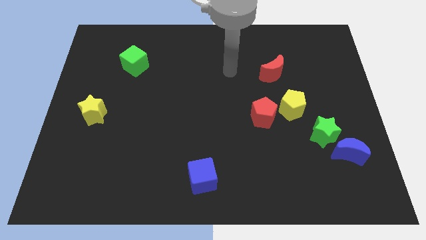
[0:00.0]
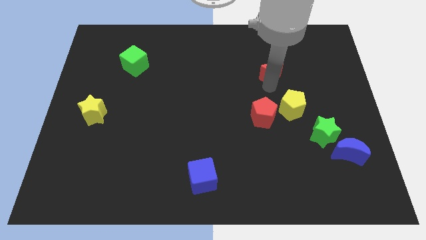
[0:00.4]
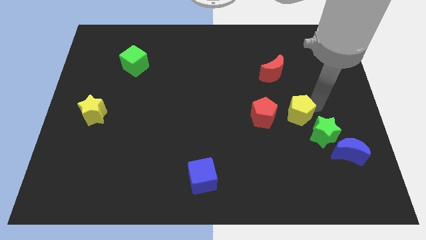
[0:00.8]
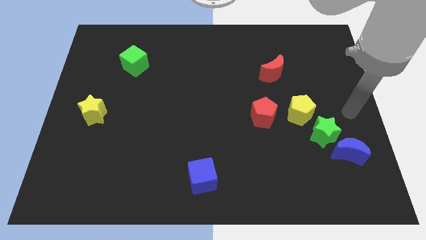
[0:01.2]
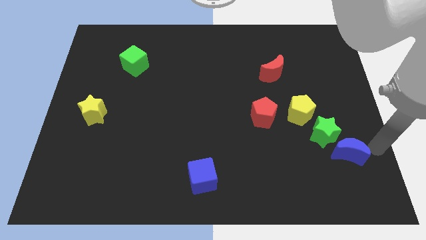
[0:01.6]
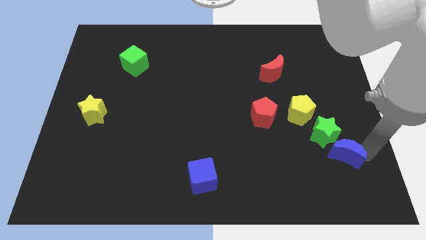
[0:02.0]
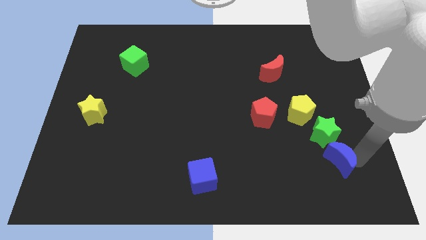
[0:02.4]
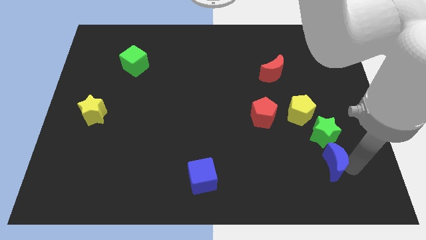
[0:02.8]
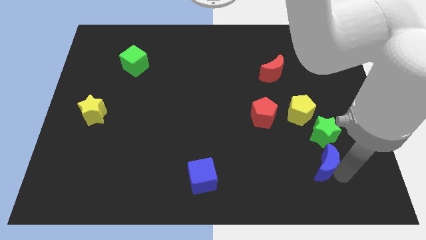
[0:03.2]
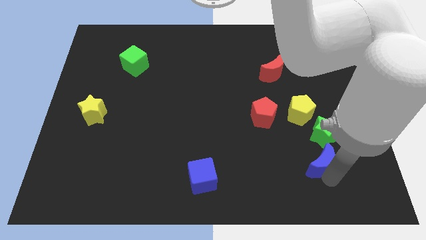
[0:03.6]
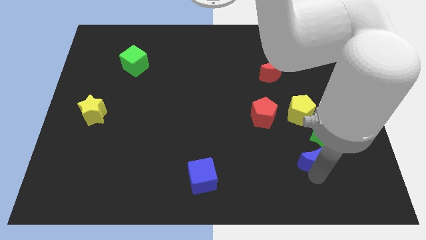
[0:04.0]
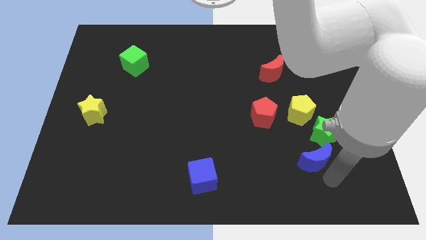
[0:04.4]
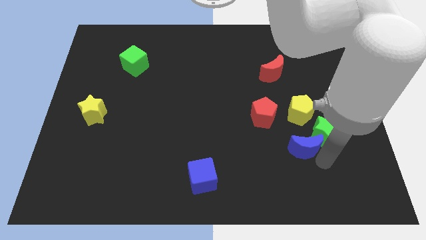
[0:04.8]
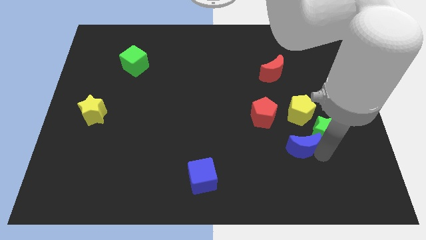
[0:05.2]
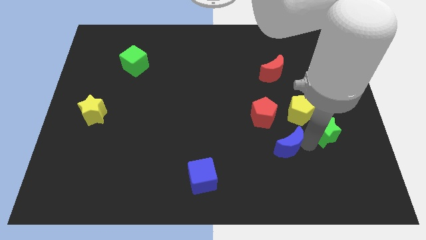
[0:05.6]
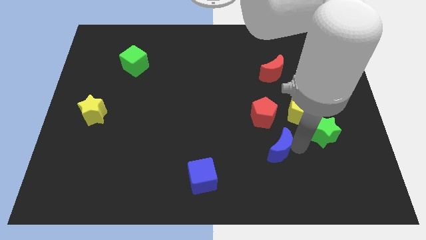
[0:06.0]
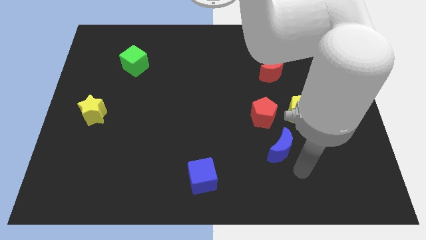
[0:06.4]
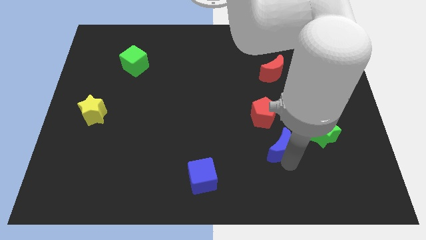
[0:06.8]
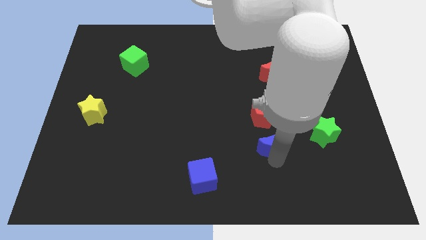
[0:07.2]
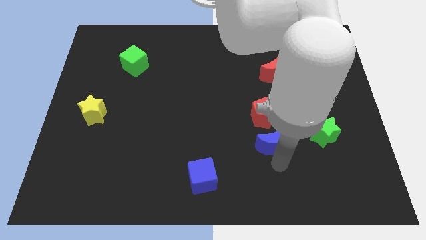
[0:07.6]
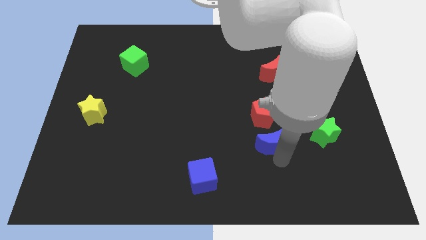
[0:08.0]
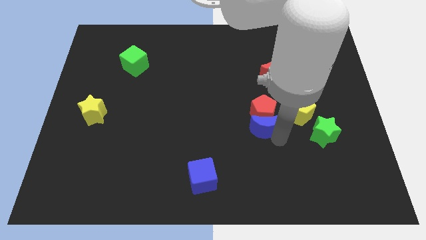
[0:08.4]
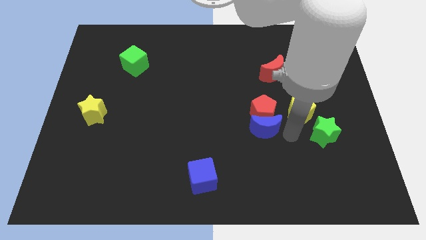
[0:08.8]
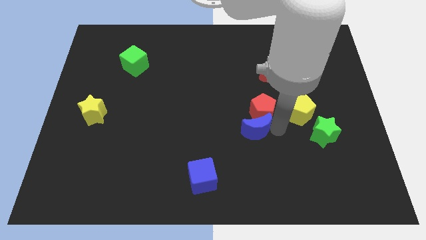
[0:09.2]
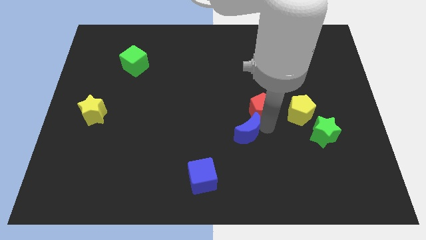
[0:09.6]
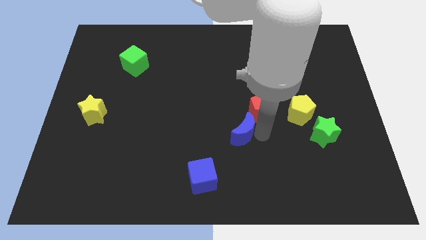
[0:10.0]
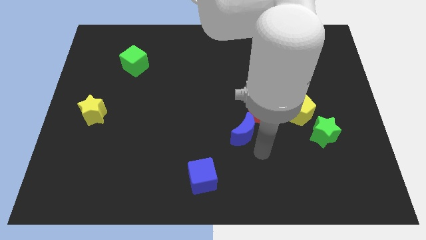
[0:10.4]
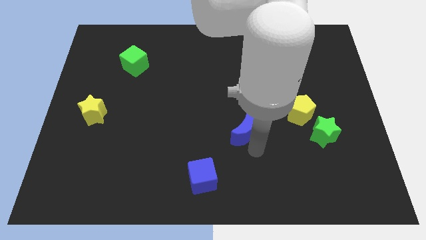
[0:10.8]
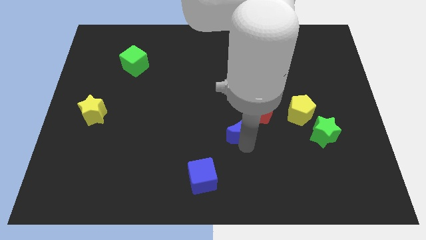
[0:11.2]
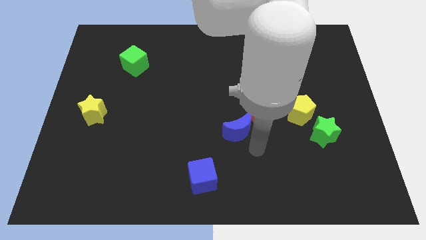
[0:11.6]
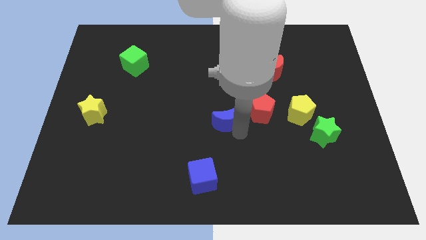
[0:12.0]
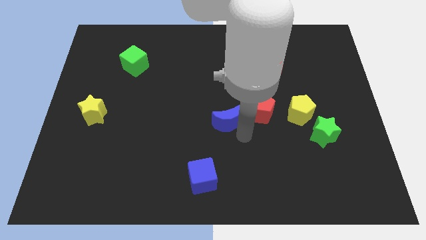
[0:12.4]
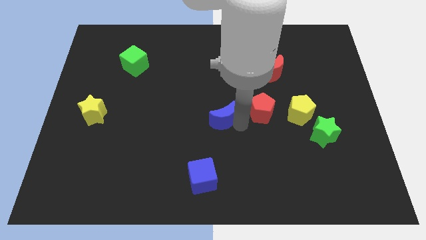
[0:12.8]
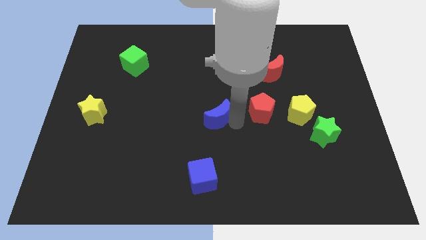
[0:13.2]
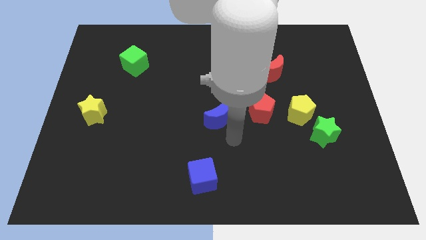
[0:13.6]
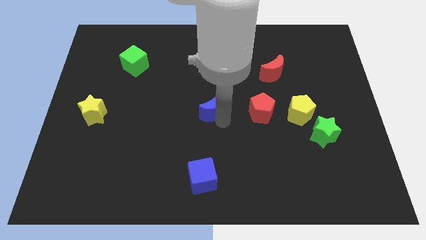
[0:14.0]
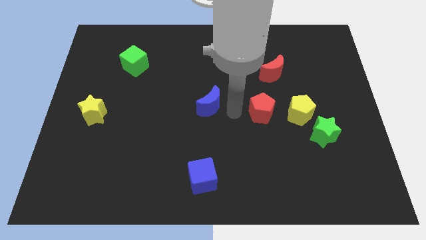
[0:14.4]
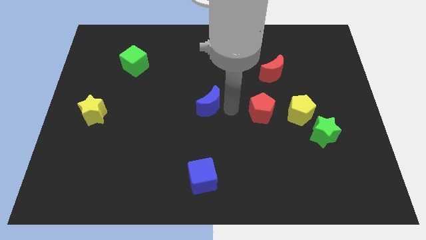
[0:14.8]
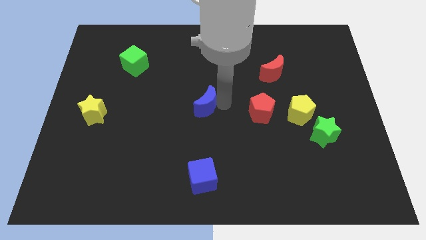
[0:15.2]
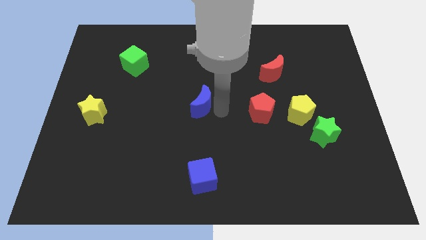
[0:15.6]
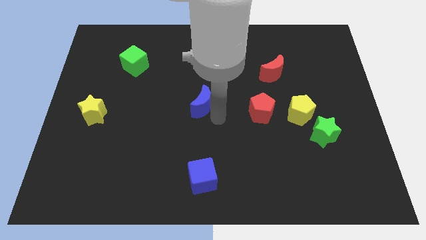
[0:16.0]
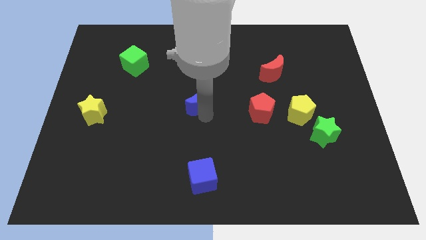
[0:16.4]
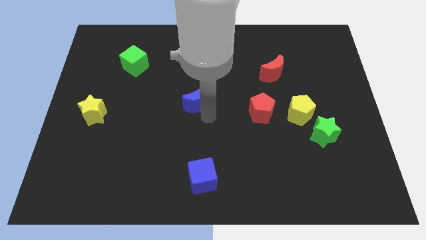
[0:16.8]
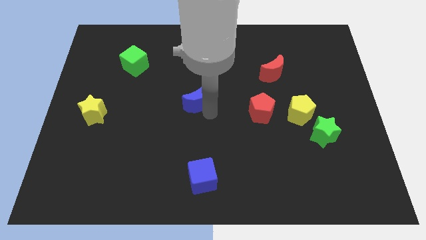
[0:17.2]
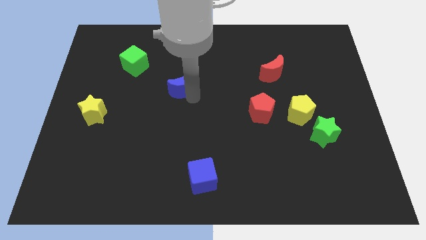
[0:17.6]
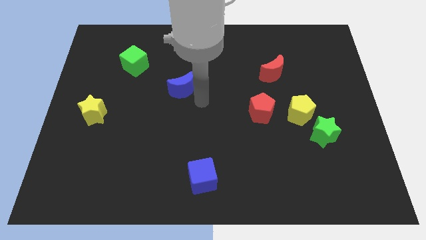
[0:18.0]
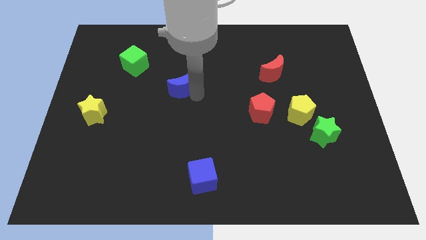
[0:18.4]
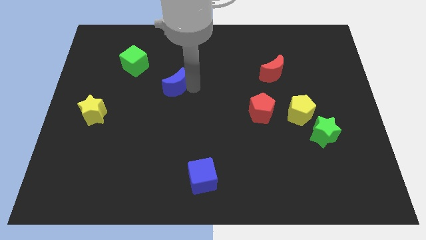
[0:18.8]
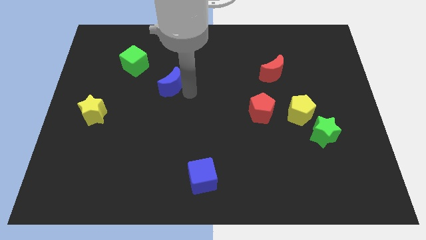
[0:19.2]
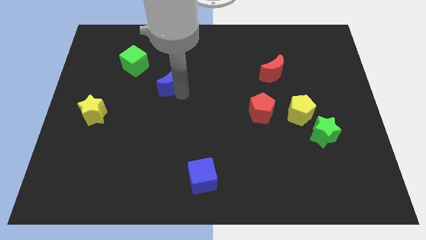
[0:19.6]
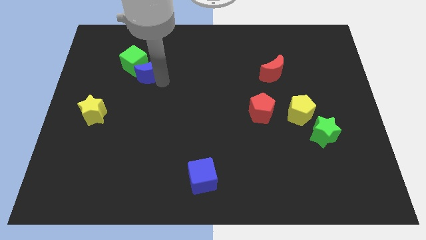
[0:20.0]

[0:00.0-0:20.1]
put the blue moon next to the green cube

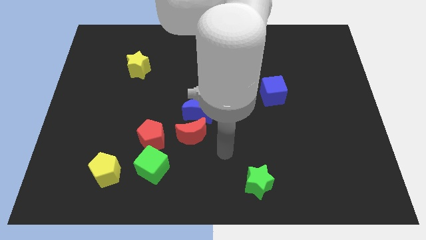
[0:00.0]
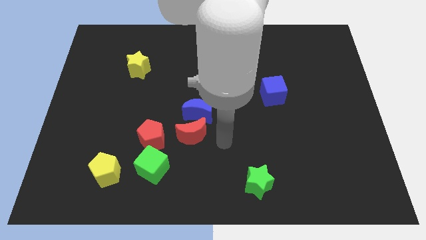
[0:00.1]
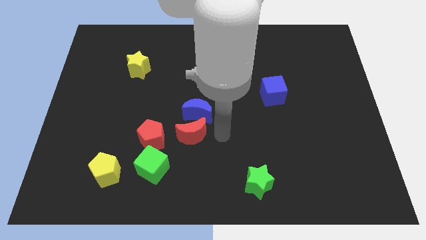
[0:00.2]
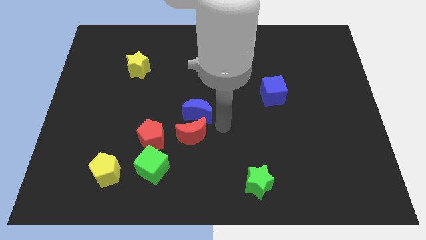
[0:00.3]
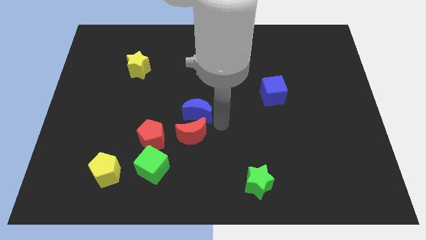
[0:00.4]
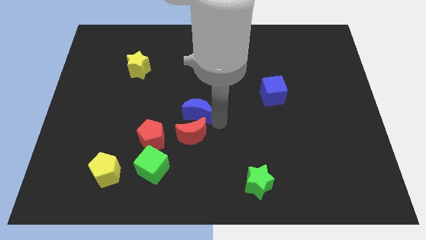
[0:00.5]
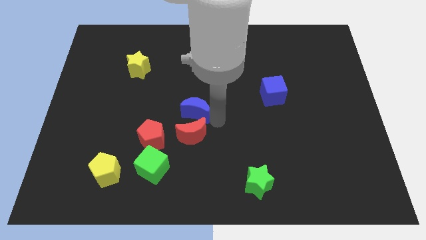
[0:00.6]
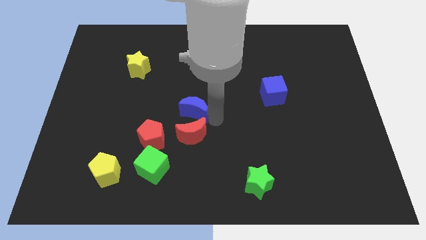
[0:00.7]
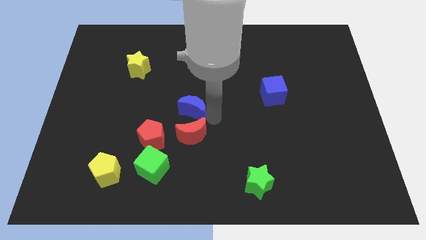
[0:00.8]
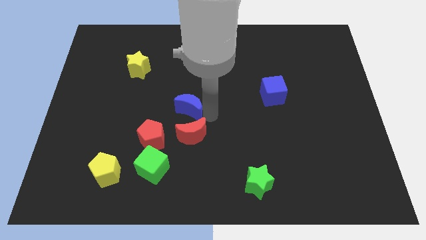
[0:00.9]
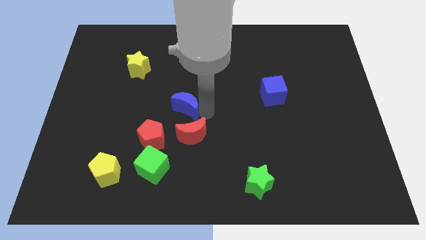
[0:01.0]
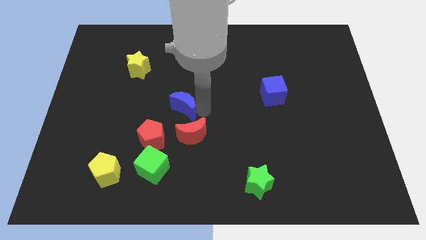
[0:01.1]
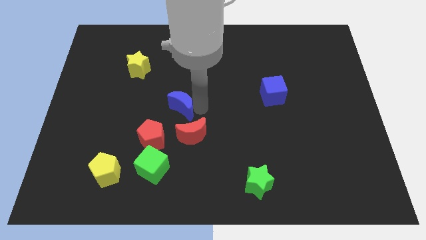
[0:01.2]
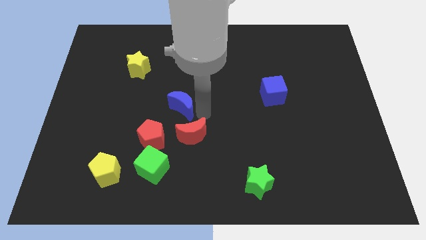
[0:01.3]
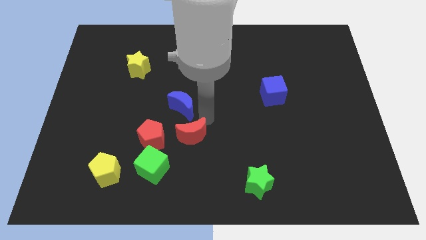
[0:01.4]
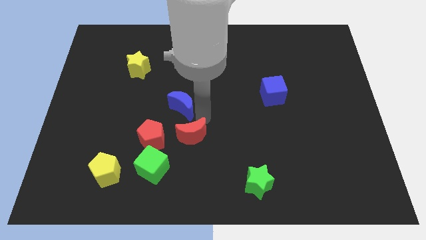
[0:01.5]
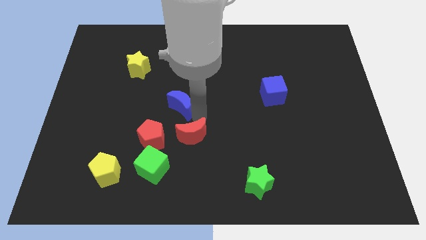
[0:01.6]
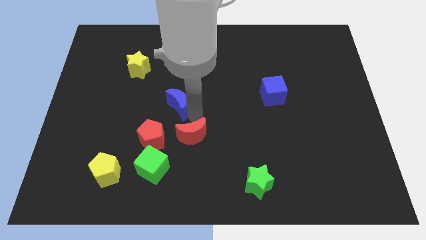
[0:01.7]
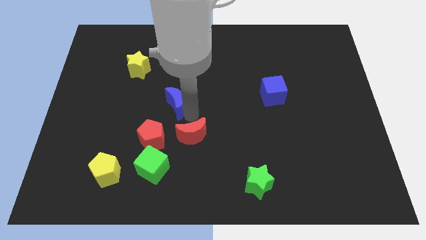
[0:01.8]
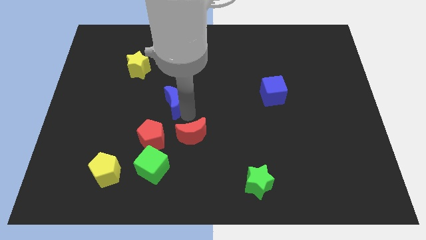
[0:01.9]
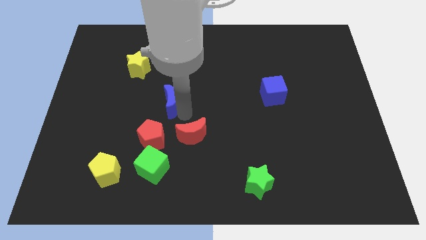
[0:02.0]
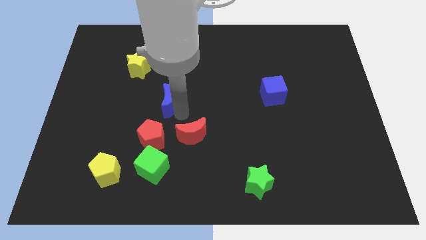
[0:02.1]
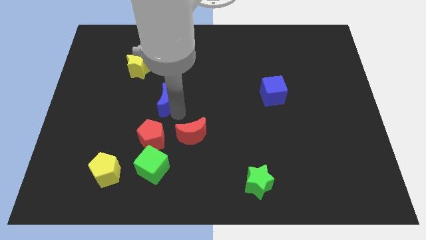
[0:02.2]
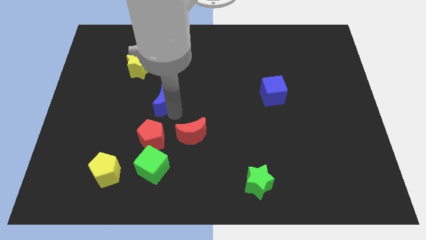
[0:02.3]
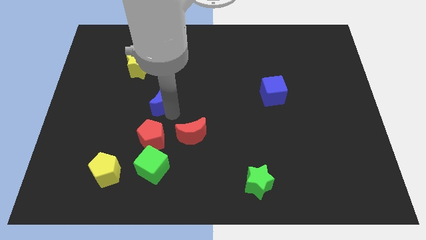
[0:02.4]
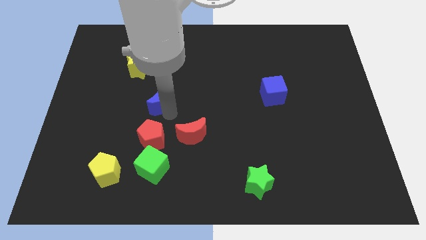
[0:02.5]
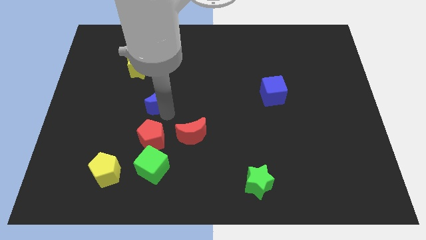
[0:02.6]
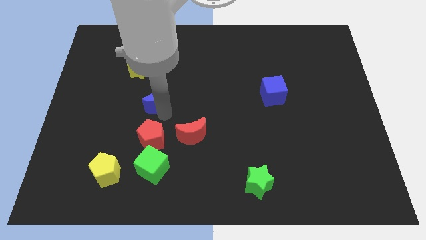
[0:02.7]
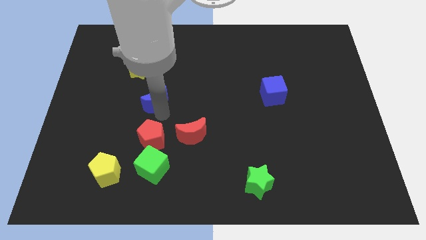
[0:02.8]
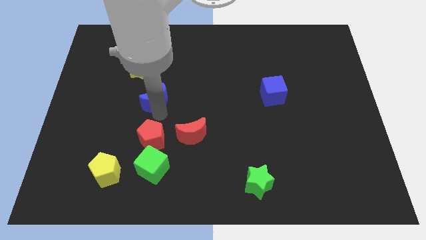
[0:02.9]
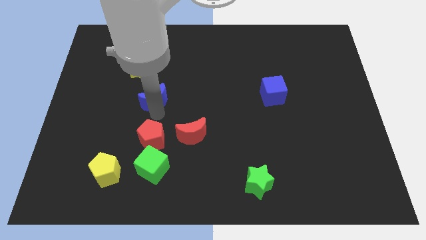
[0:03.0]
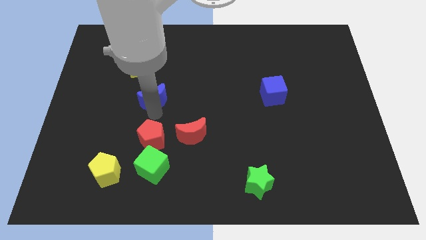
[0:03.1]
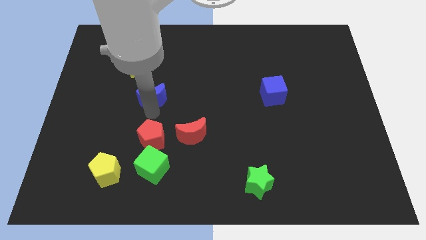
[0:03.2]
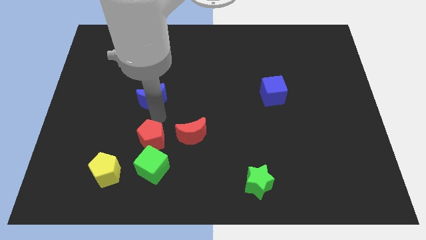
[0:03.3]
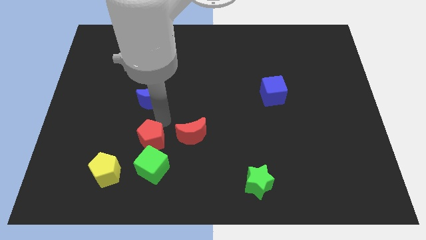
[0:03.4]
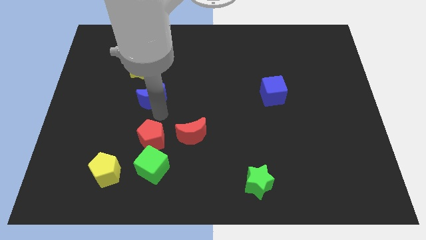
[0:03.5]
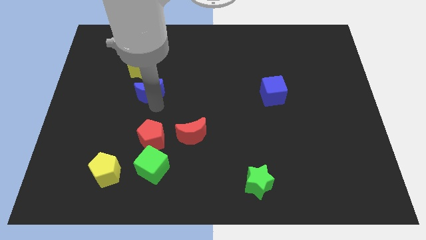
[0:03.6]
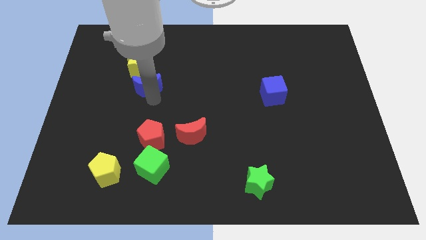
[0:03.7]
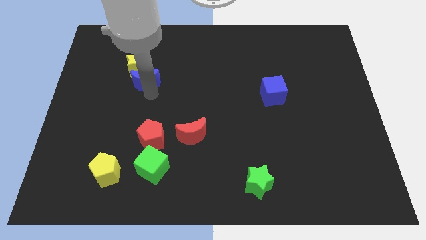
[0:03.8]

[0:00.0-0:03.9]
push the blue moon to the yellow star
